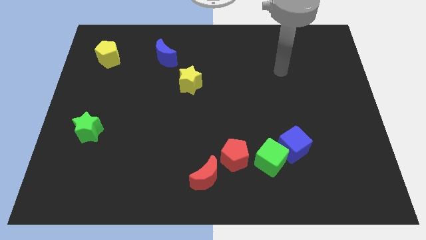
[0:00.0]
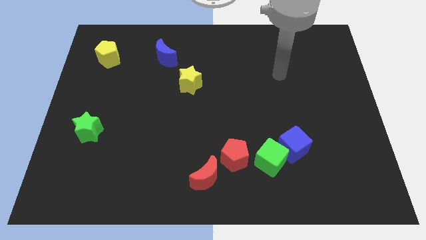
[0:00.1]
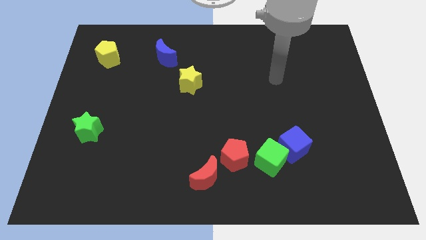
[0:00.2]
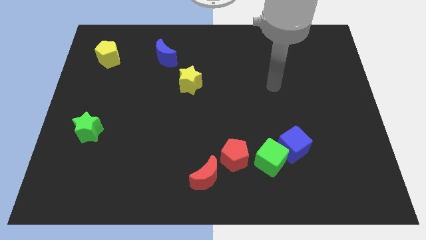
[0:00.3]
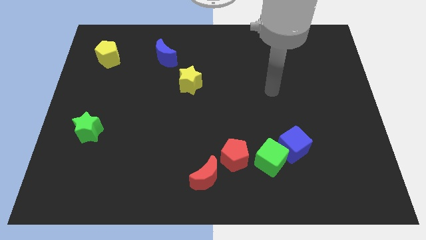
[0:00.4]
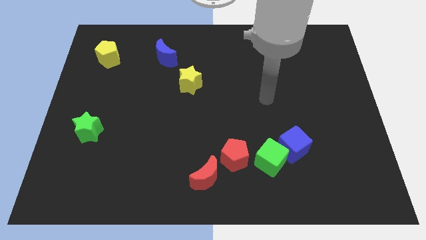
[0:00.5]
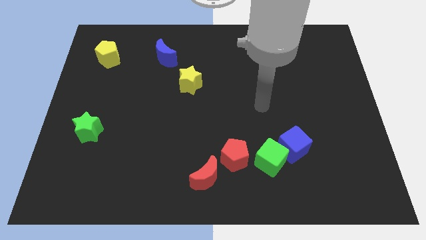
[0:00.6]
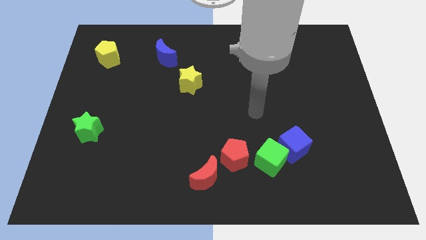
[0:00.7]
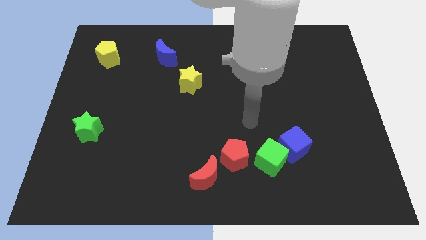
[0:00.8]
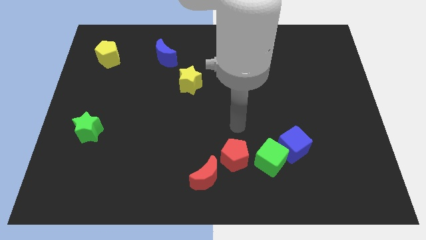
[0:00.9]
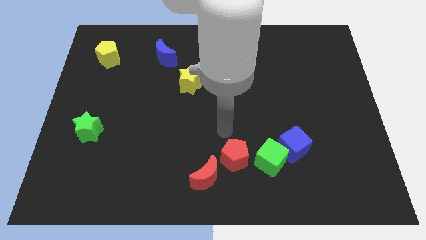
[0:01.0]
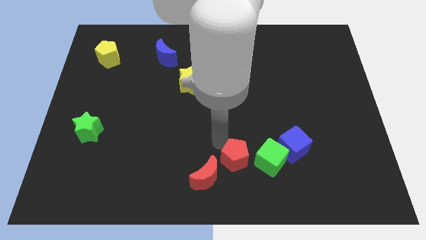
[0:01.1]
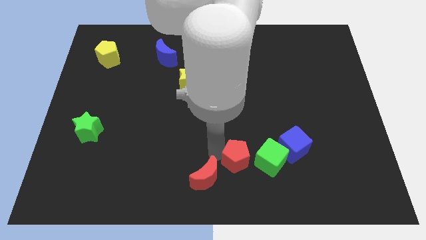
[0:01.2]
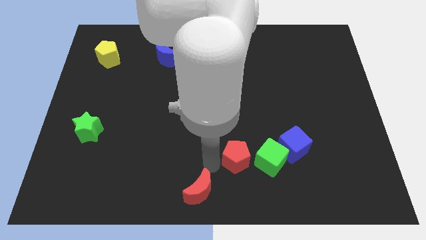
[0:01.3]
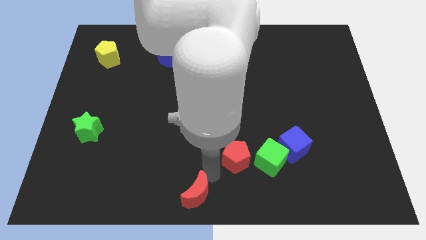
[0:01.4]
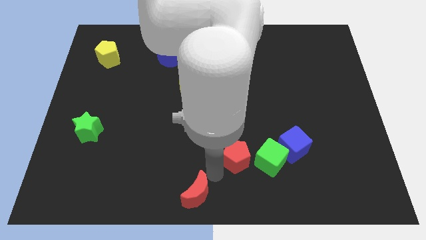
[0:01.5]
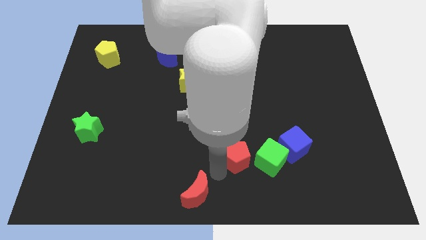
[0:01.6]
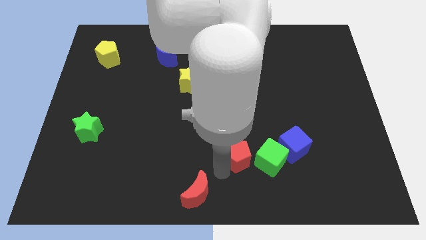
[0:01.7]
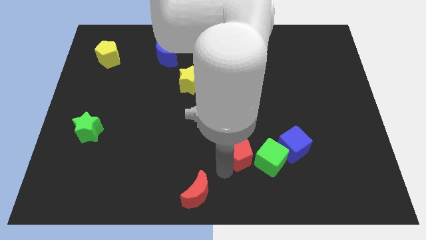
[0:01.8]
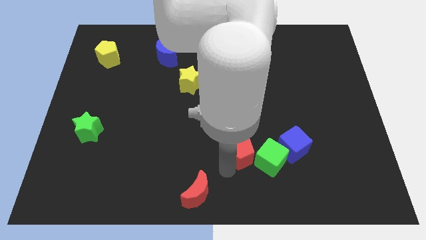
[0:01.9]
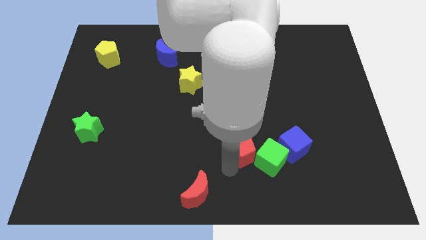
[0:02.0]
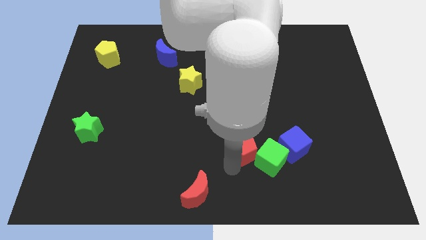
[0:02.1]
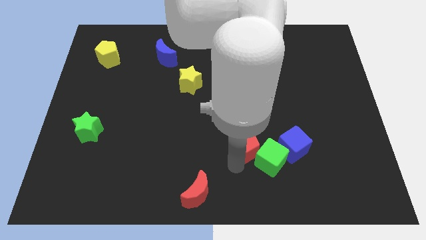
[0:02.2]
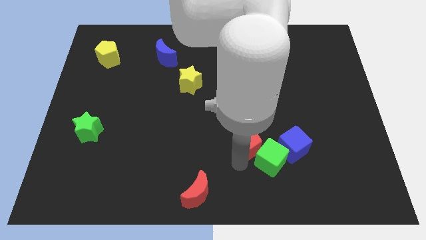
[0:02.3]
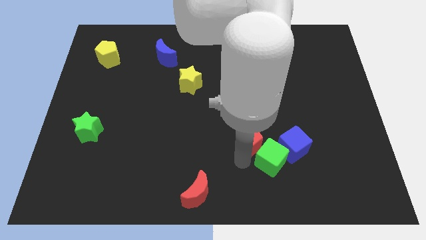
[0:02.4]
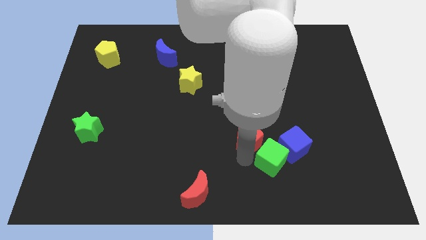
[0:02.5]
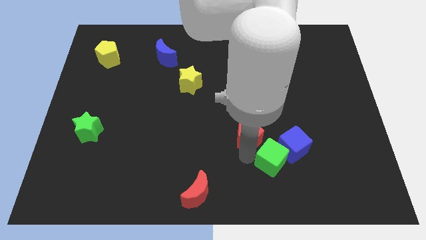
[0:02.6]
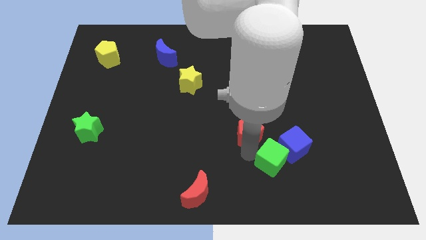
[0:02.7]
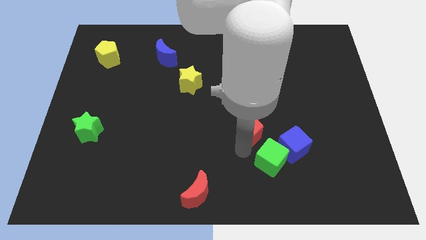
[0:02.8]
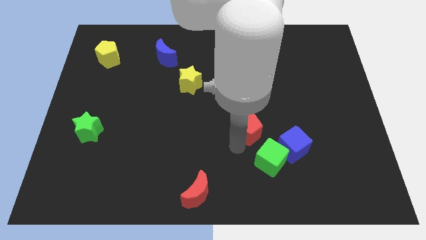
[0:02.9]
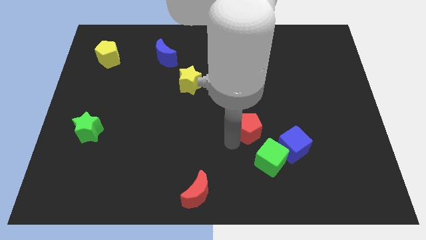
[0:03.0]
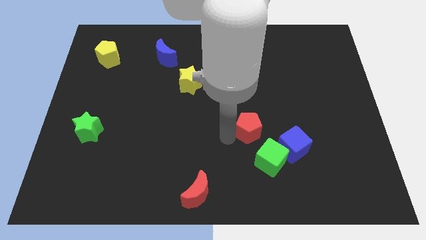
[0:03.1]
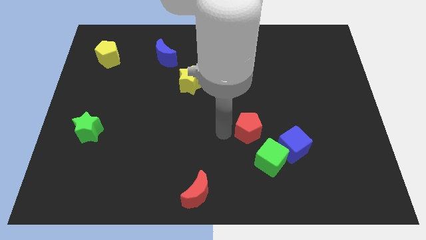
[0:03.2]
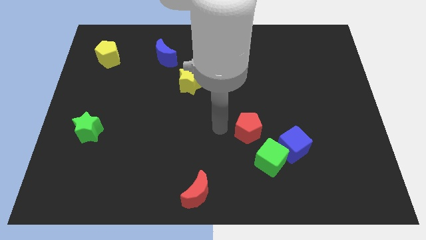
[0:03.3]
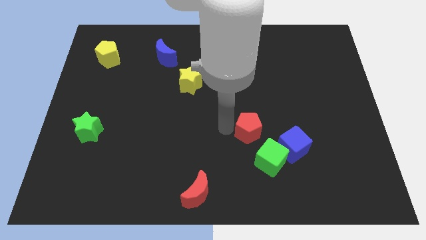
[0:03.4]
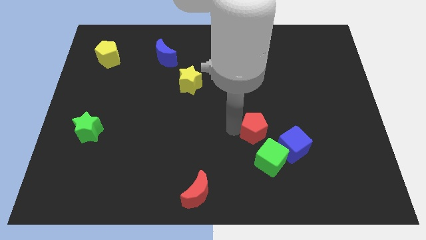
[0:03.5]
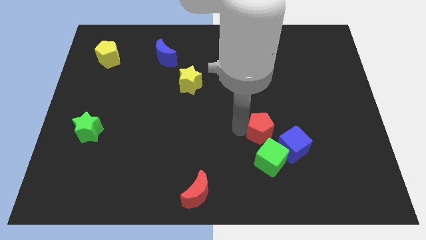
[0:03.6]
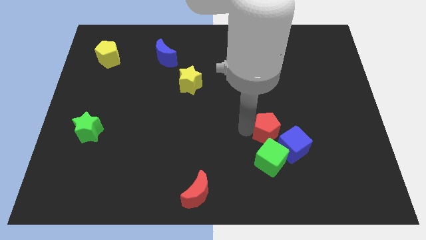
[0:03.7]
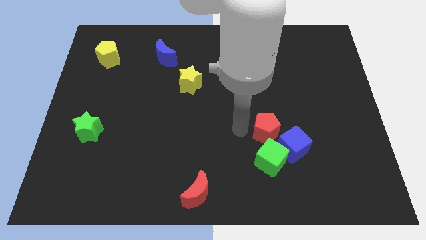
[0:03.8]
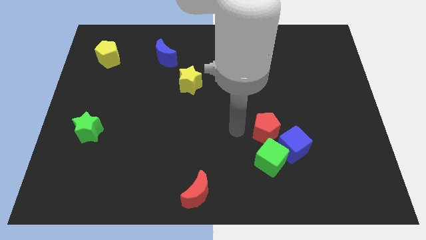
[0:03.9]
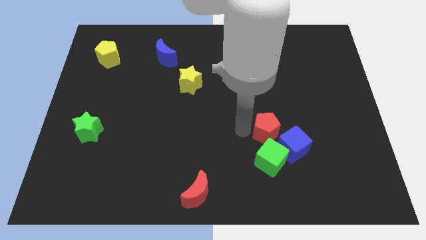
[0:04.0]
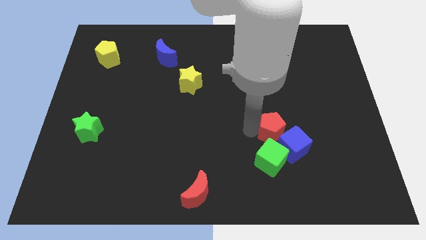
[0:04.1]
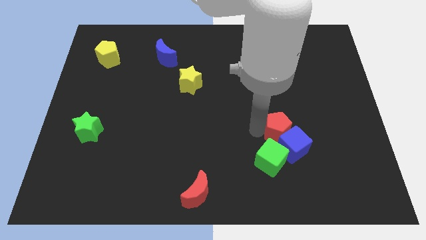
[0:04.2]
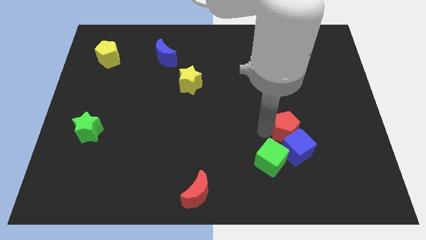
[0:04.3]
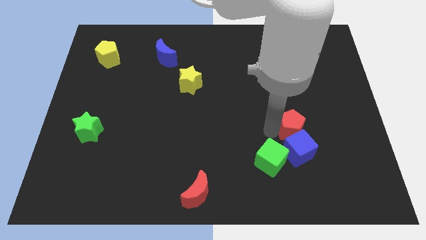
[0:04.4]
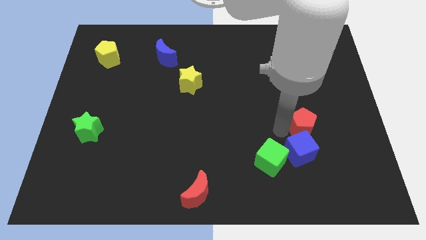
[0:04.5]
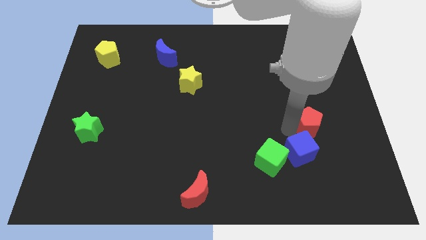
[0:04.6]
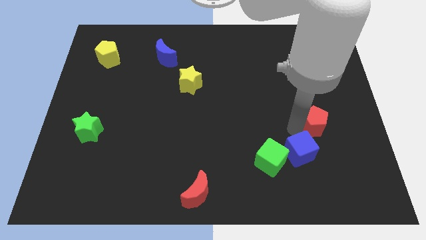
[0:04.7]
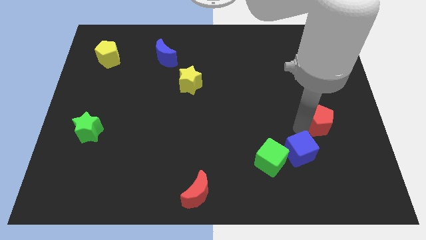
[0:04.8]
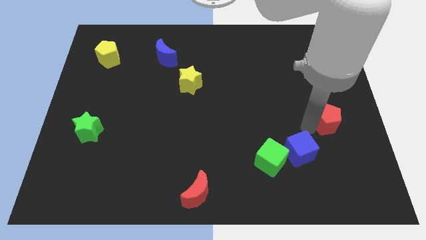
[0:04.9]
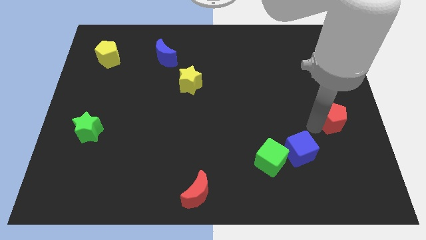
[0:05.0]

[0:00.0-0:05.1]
push the red pentagon to the right side of the board

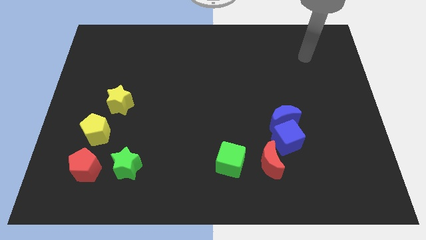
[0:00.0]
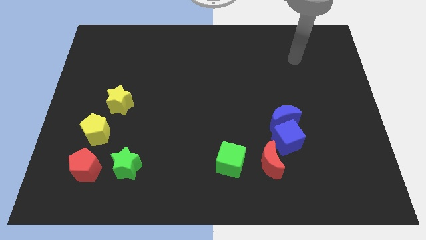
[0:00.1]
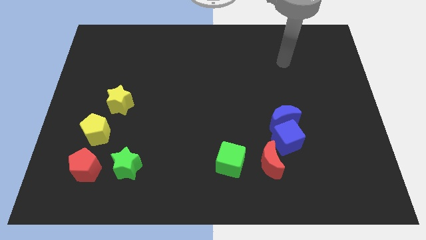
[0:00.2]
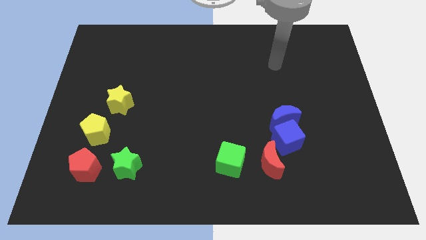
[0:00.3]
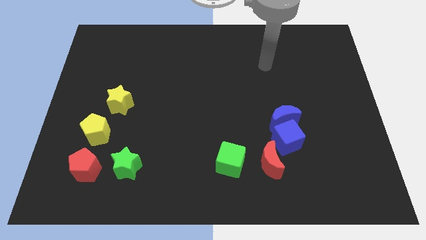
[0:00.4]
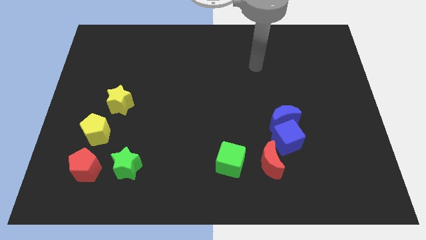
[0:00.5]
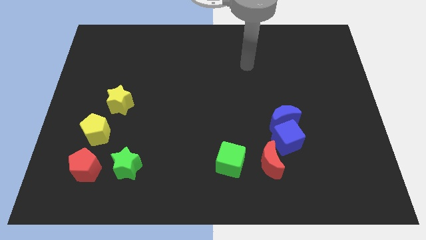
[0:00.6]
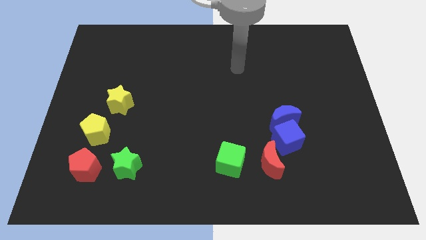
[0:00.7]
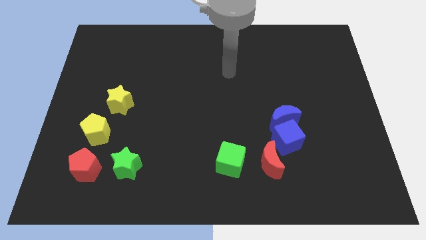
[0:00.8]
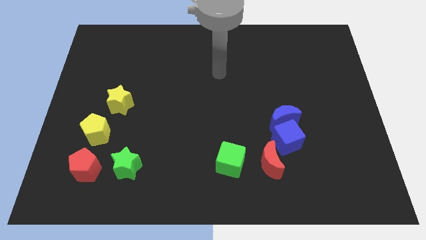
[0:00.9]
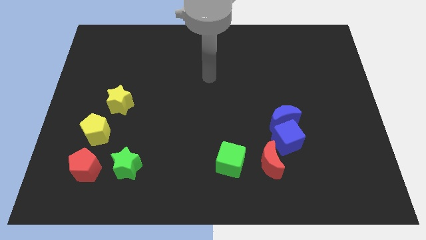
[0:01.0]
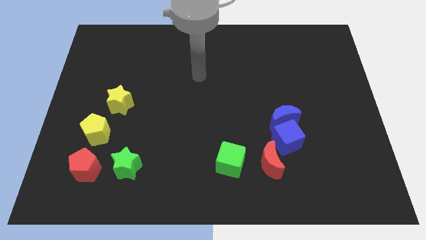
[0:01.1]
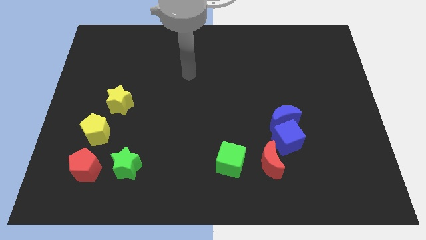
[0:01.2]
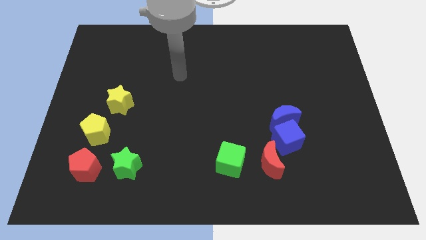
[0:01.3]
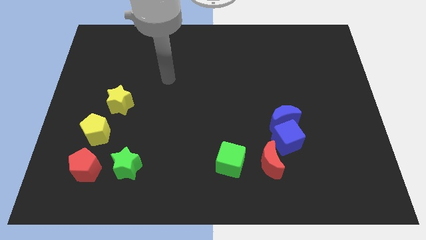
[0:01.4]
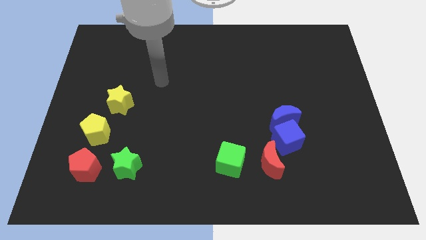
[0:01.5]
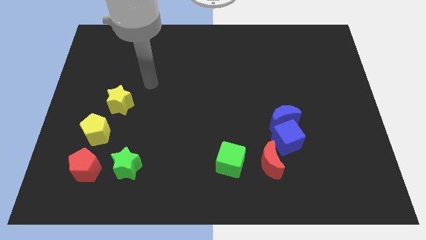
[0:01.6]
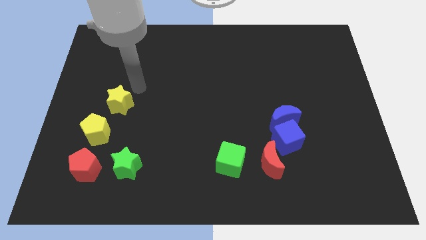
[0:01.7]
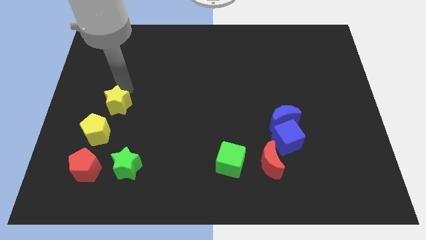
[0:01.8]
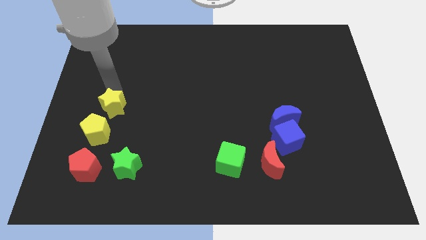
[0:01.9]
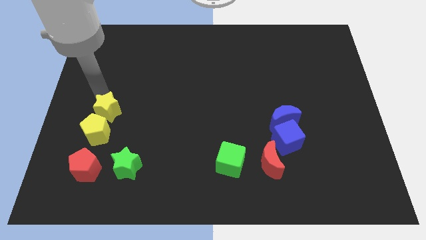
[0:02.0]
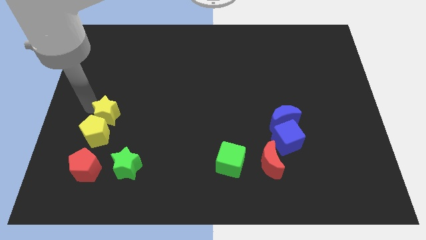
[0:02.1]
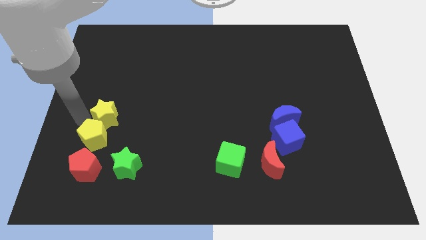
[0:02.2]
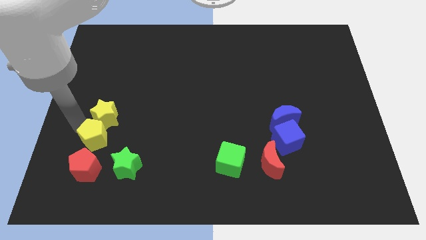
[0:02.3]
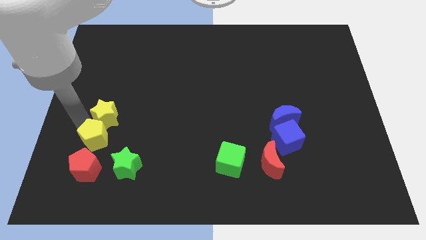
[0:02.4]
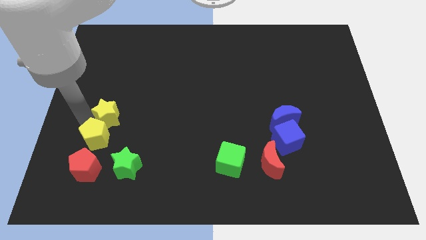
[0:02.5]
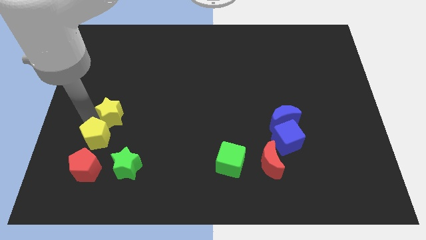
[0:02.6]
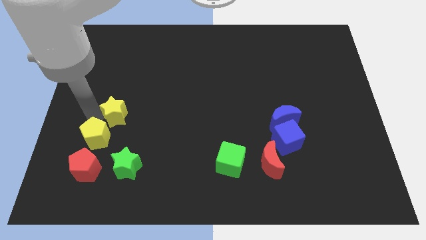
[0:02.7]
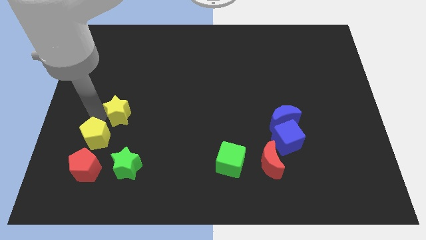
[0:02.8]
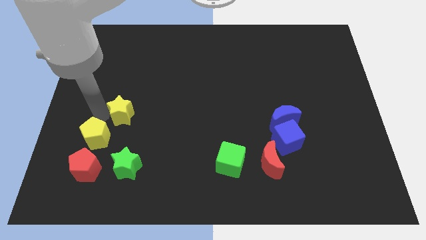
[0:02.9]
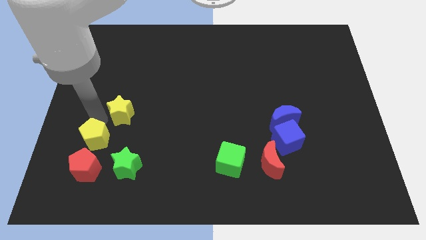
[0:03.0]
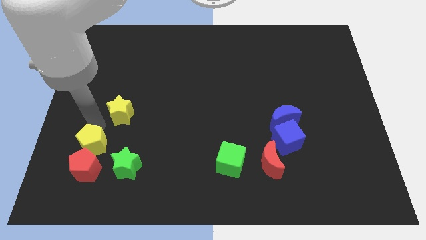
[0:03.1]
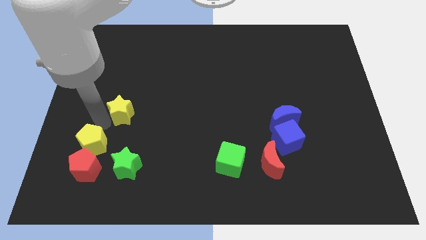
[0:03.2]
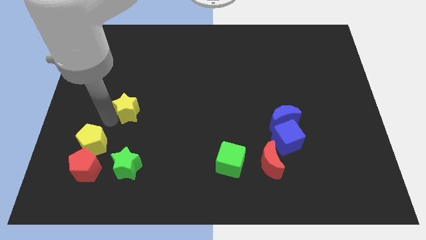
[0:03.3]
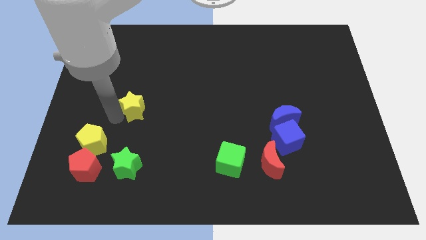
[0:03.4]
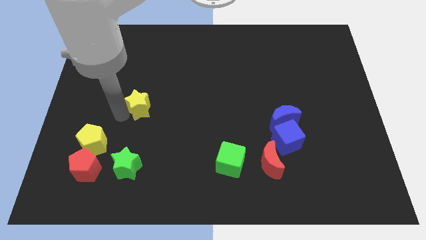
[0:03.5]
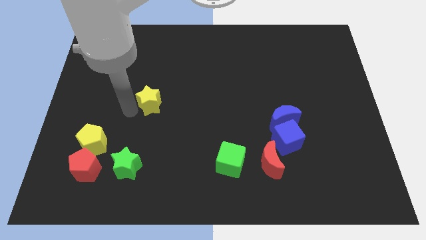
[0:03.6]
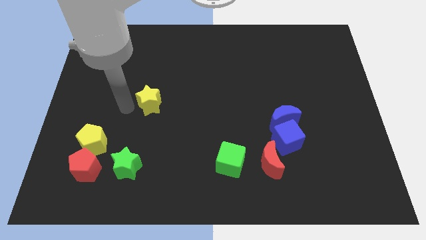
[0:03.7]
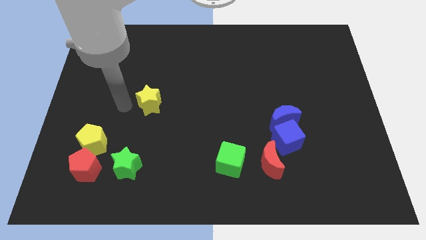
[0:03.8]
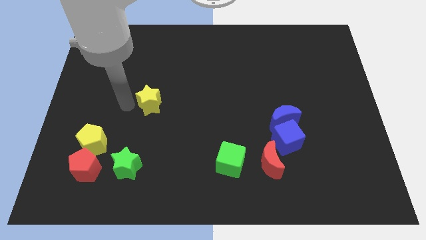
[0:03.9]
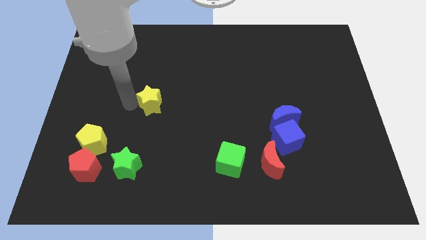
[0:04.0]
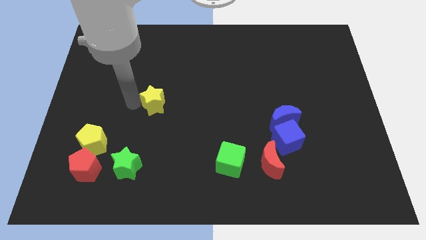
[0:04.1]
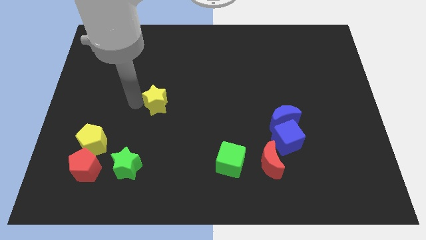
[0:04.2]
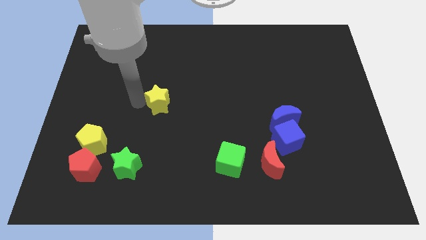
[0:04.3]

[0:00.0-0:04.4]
push the yellow star to the center
